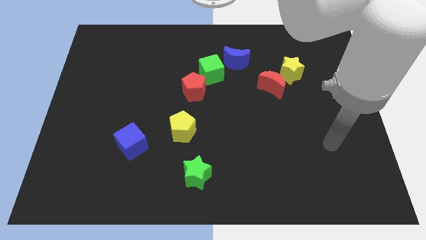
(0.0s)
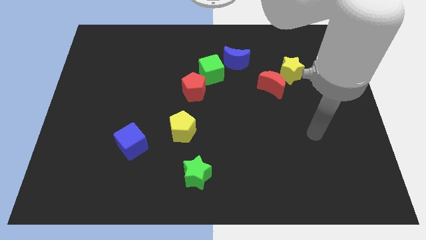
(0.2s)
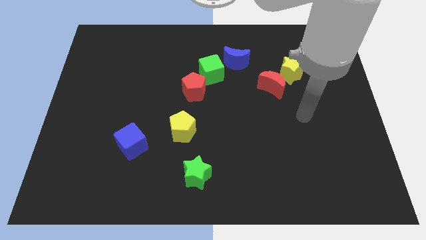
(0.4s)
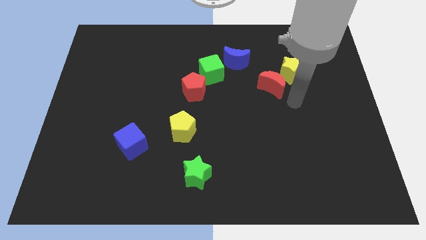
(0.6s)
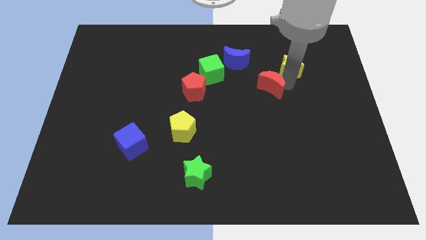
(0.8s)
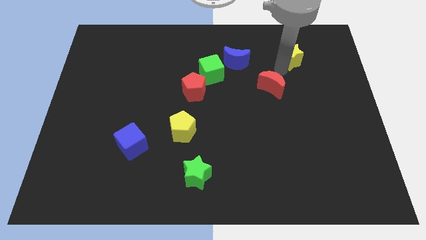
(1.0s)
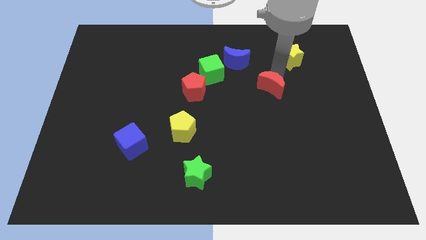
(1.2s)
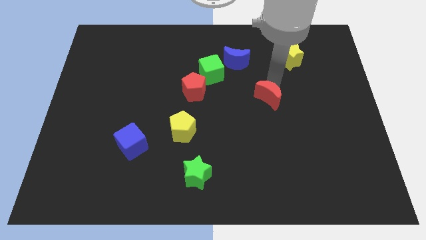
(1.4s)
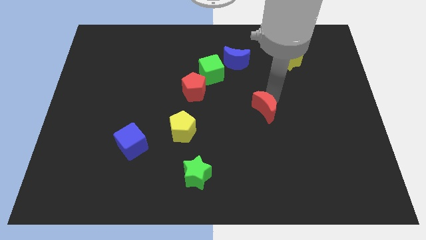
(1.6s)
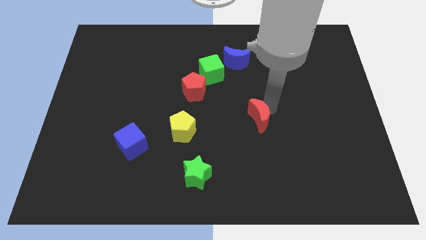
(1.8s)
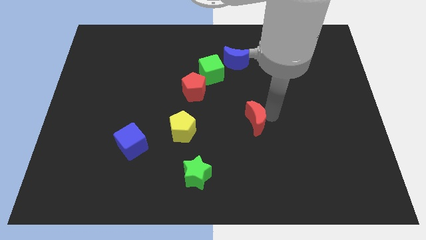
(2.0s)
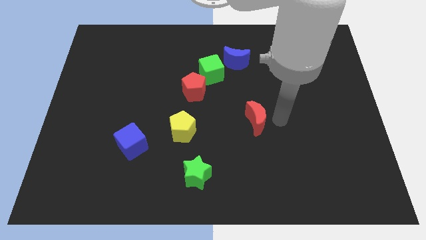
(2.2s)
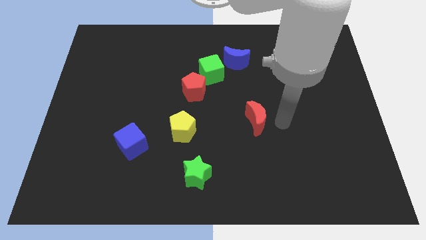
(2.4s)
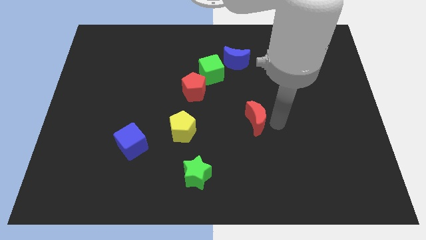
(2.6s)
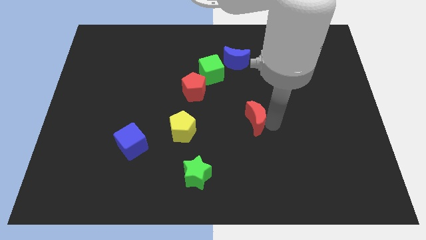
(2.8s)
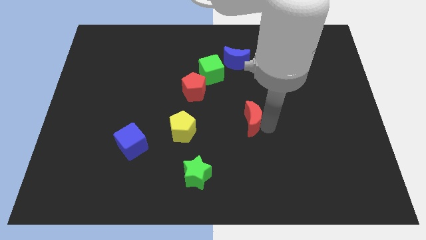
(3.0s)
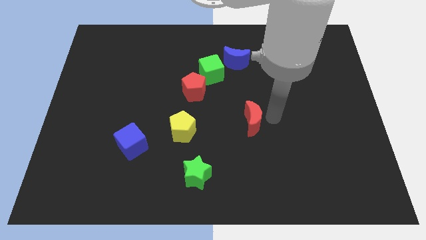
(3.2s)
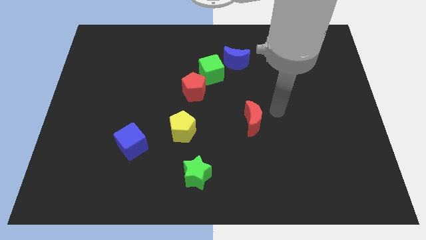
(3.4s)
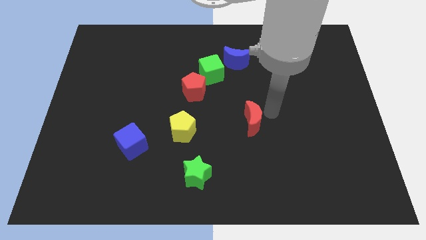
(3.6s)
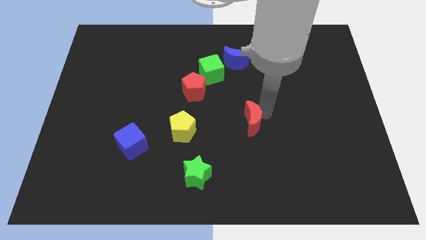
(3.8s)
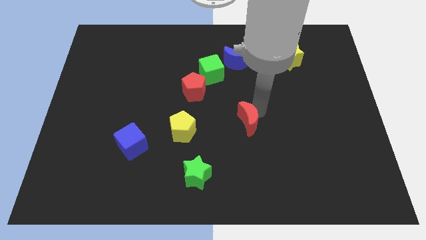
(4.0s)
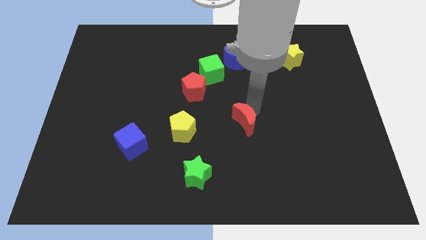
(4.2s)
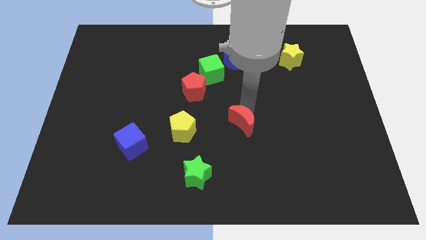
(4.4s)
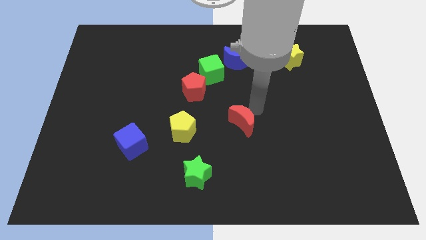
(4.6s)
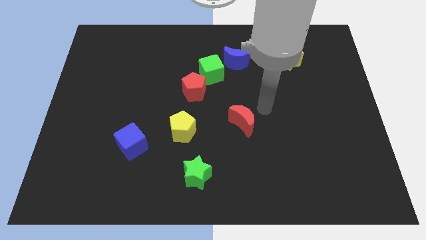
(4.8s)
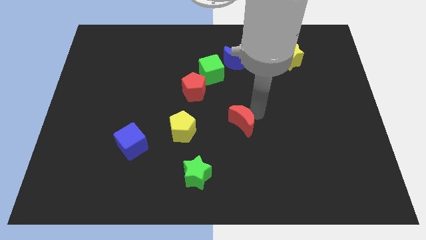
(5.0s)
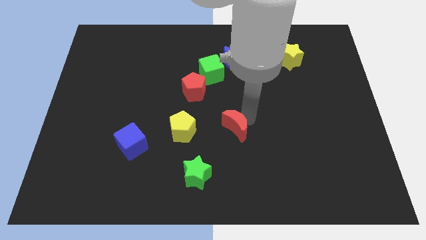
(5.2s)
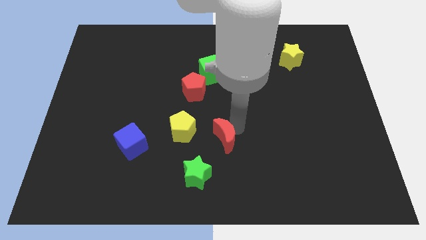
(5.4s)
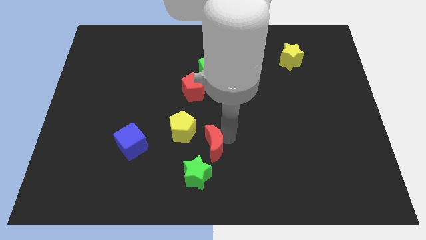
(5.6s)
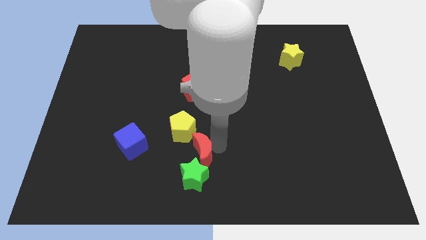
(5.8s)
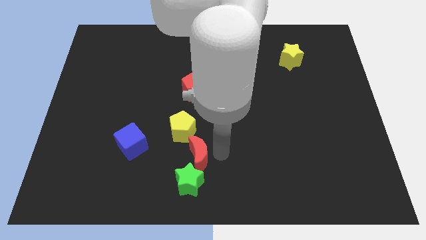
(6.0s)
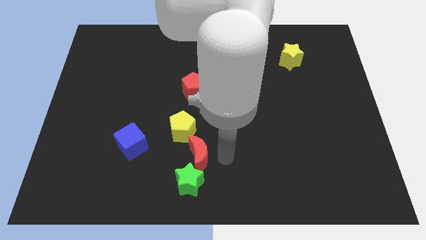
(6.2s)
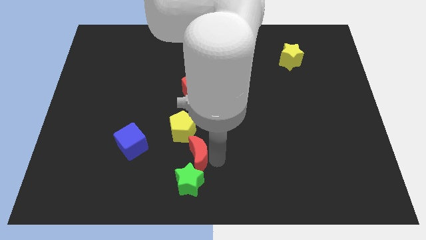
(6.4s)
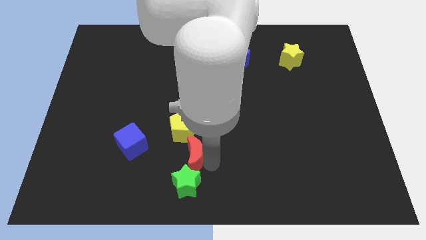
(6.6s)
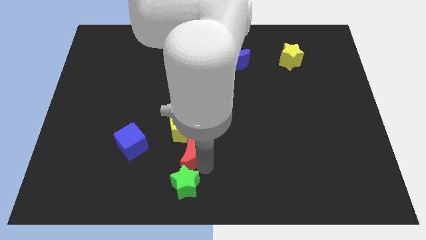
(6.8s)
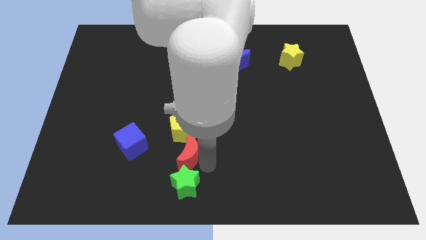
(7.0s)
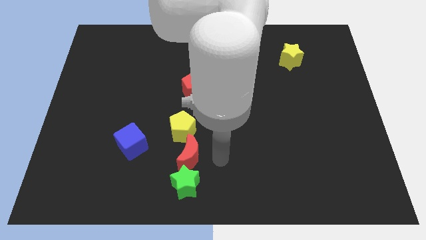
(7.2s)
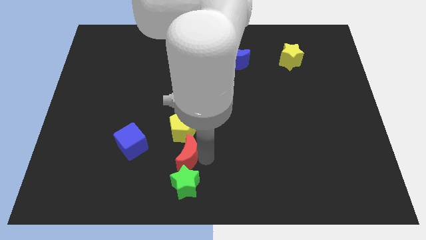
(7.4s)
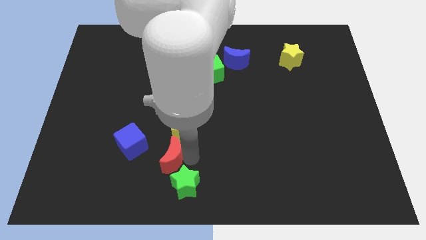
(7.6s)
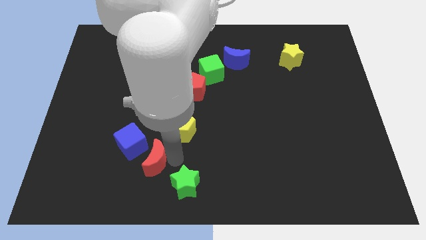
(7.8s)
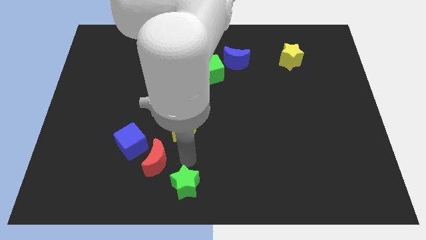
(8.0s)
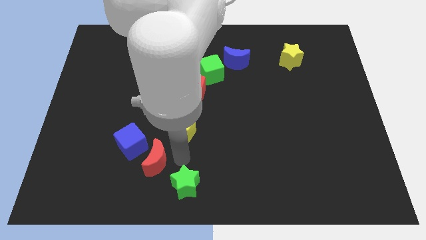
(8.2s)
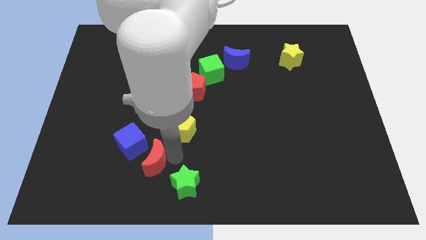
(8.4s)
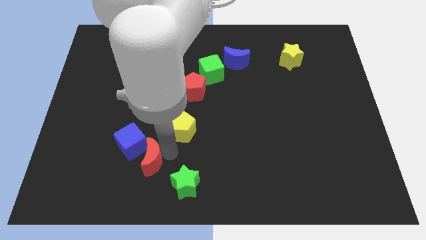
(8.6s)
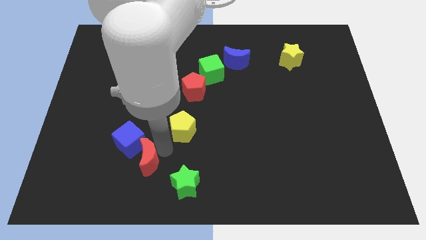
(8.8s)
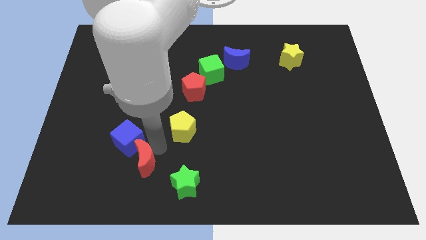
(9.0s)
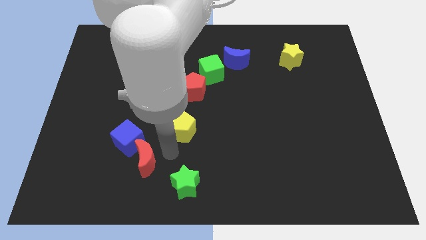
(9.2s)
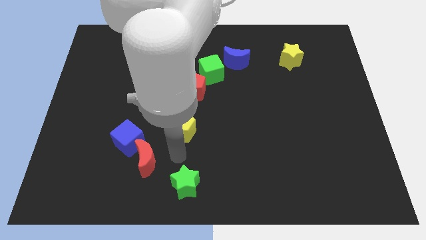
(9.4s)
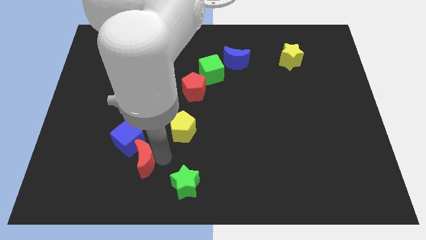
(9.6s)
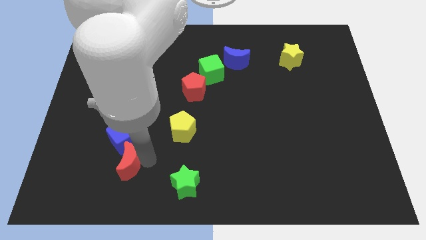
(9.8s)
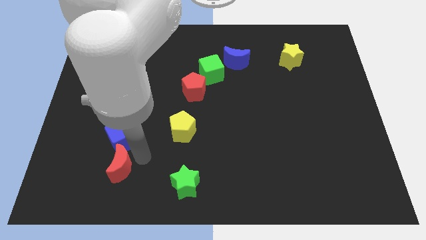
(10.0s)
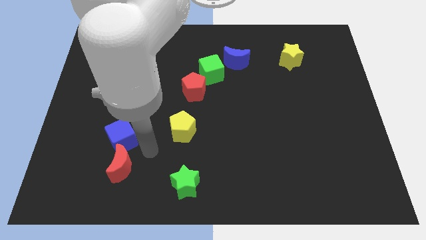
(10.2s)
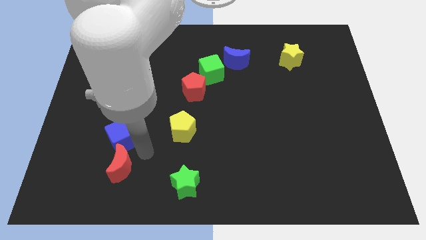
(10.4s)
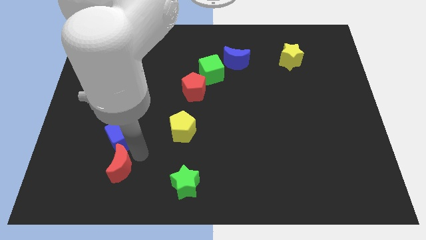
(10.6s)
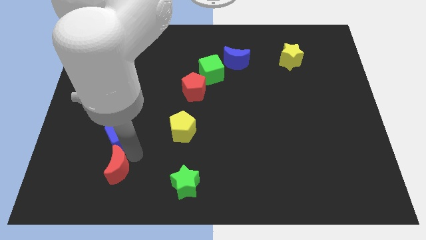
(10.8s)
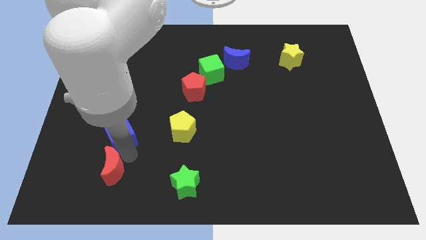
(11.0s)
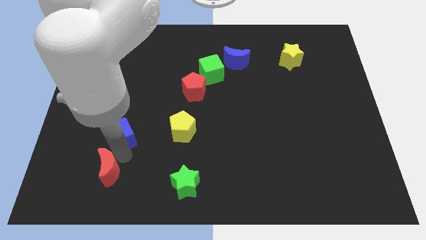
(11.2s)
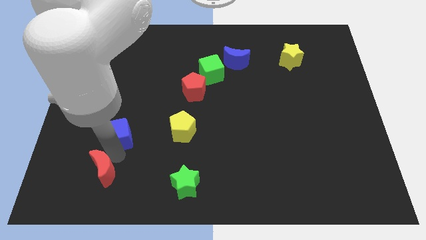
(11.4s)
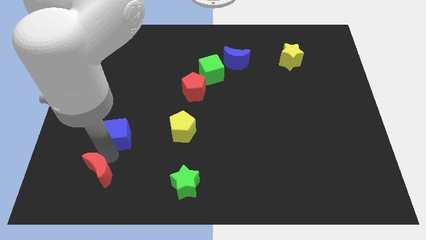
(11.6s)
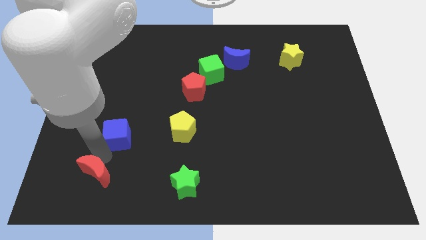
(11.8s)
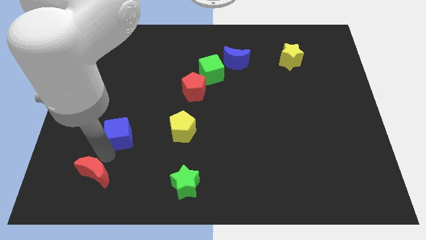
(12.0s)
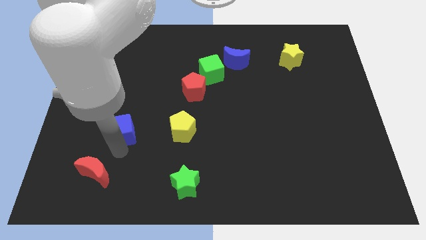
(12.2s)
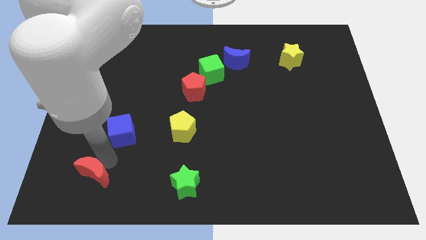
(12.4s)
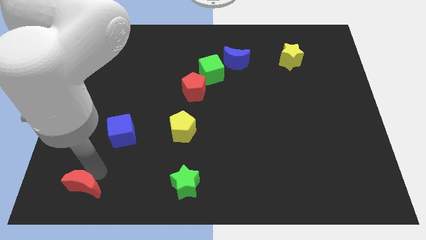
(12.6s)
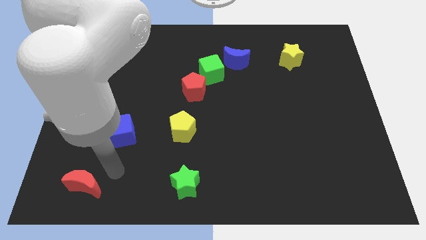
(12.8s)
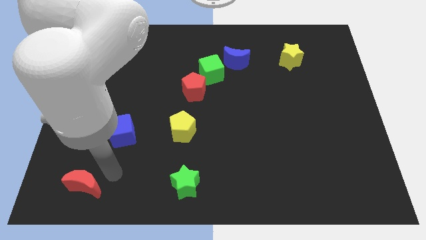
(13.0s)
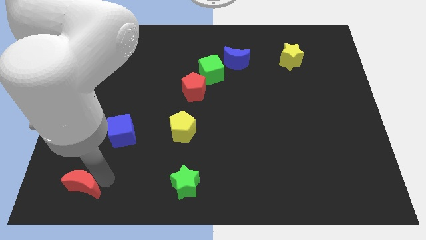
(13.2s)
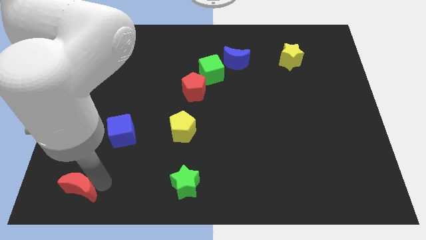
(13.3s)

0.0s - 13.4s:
put the red moon to the bottom left
